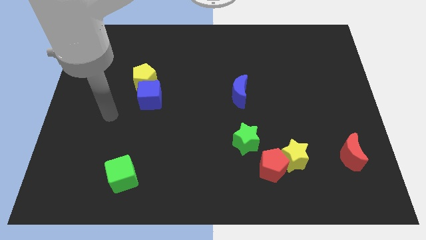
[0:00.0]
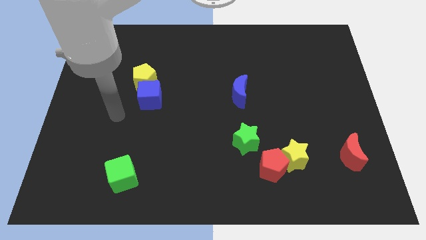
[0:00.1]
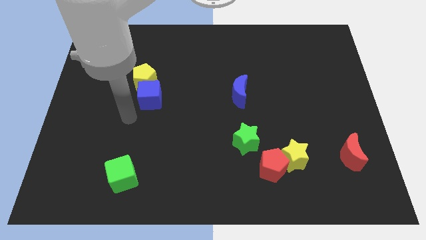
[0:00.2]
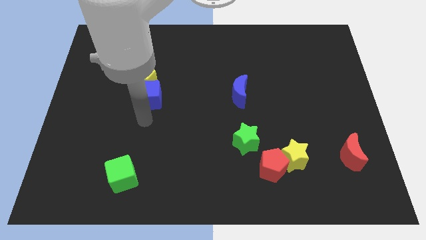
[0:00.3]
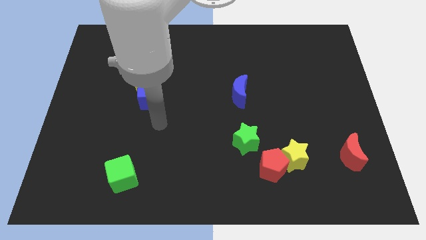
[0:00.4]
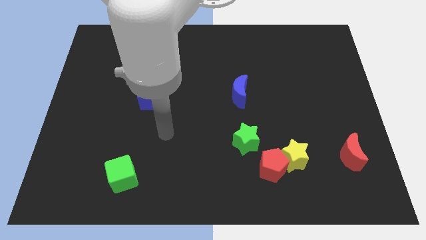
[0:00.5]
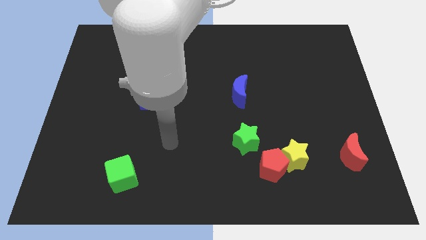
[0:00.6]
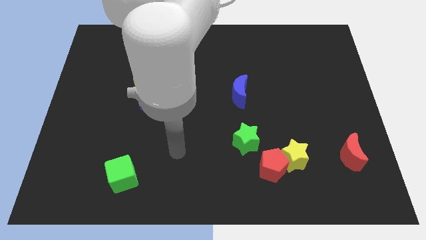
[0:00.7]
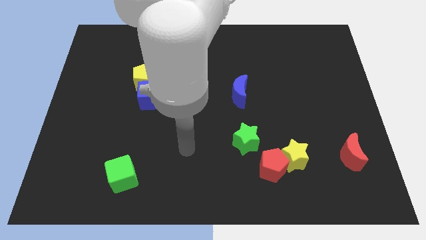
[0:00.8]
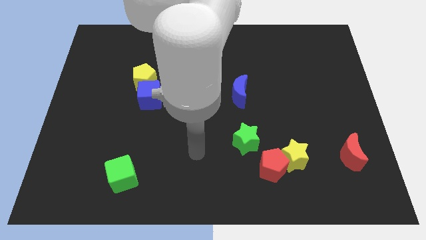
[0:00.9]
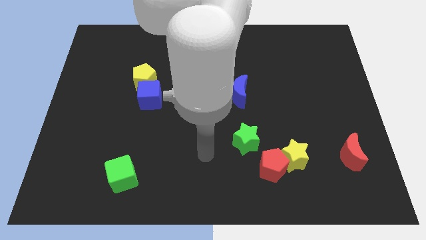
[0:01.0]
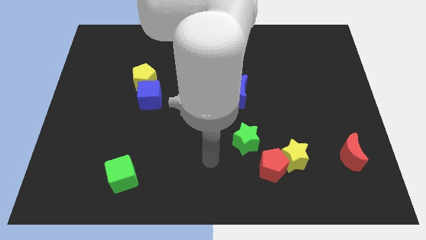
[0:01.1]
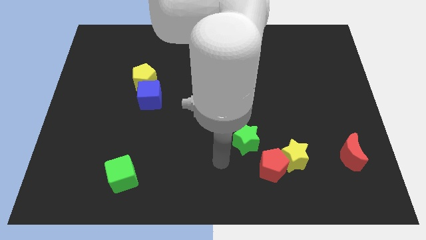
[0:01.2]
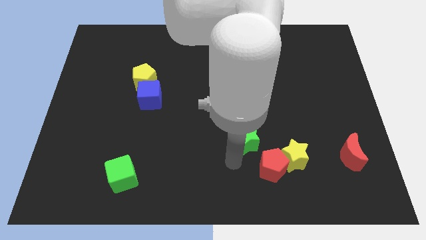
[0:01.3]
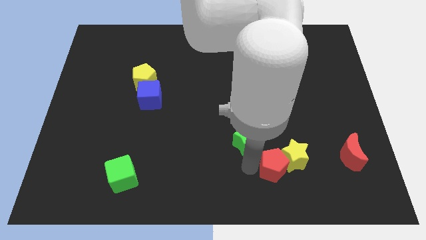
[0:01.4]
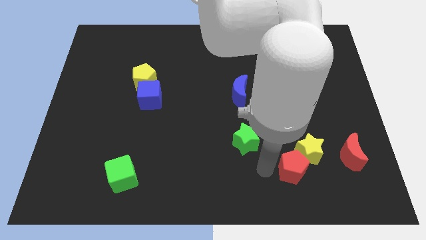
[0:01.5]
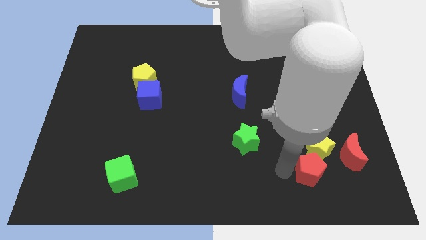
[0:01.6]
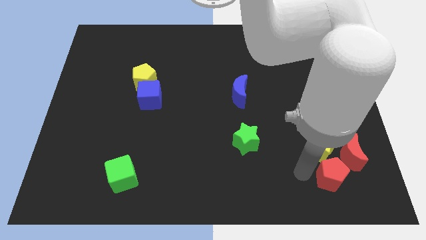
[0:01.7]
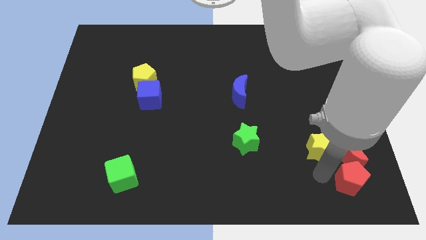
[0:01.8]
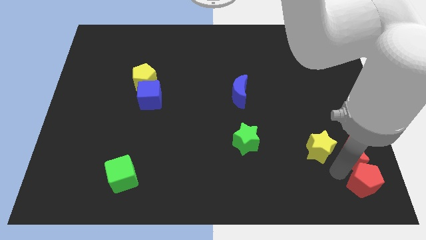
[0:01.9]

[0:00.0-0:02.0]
separate the yellow star from the red pentagon

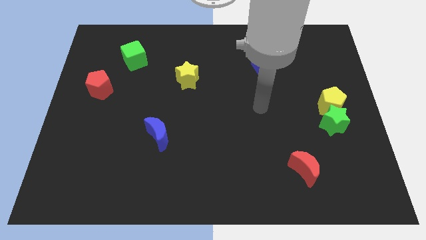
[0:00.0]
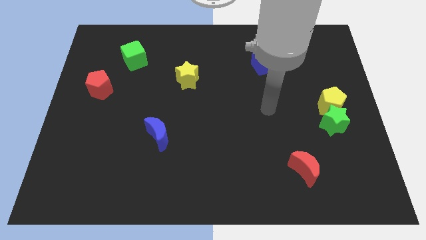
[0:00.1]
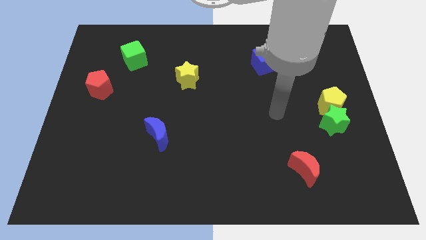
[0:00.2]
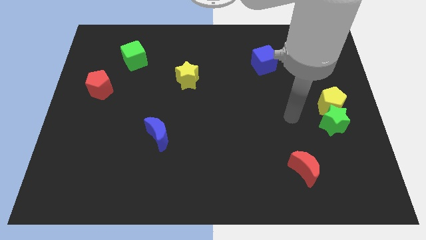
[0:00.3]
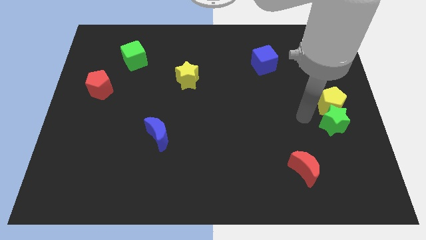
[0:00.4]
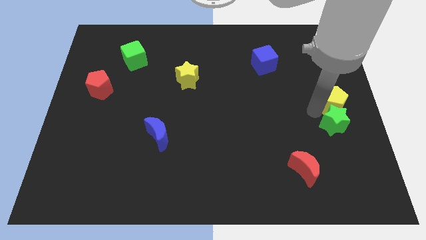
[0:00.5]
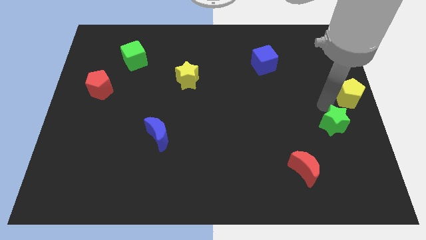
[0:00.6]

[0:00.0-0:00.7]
move the green star away from the yellow pentagon

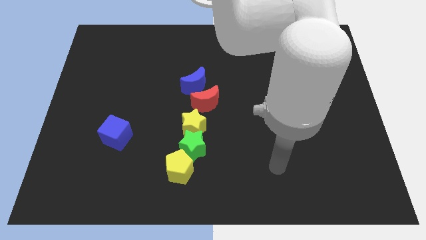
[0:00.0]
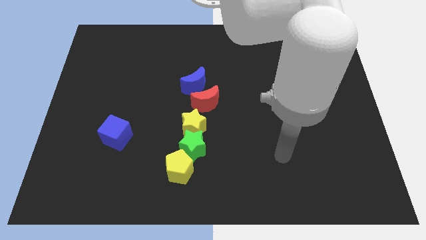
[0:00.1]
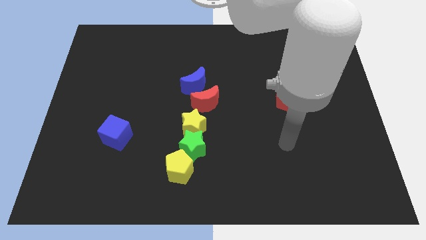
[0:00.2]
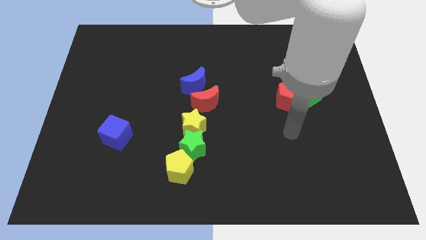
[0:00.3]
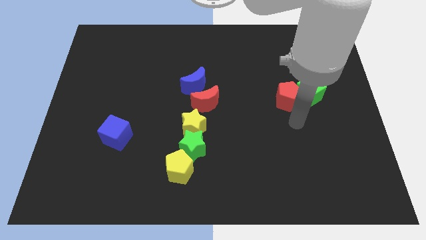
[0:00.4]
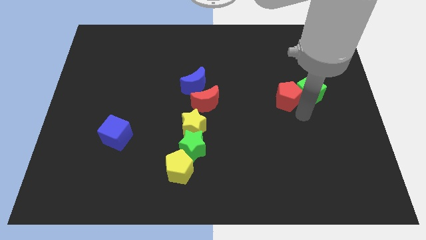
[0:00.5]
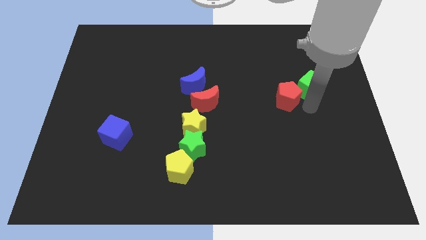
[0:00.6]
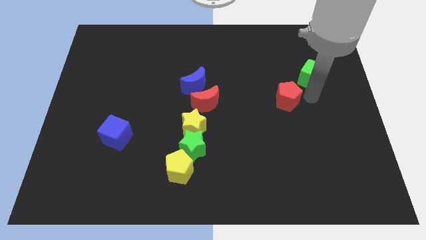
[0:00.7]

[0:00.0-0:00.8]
move the red pentagon away from the green cube

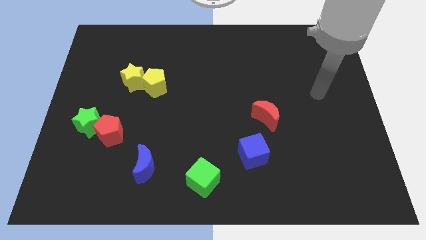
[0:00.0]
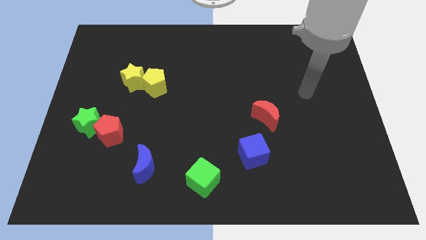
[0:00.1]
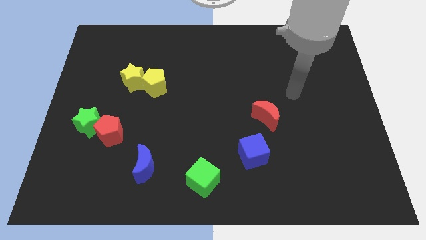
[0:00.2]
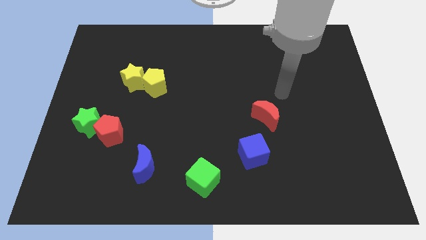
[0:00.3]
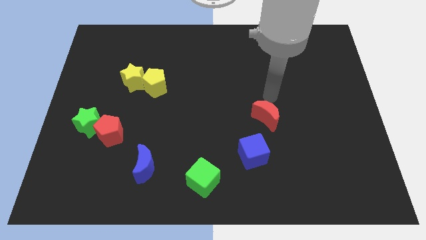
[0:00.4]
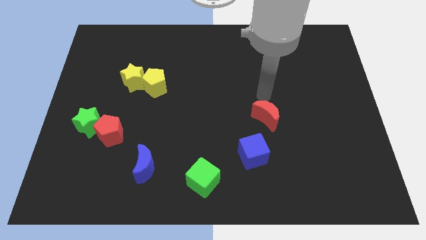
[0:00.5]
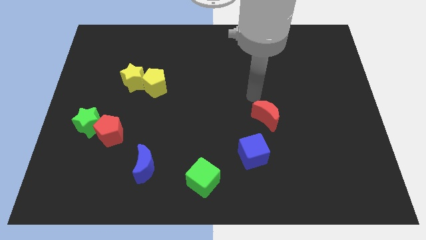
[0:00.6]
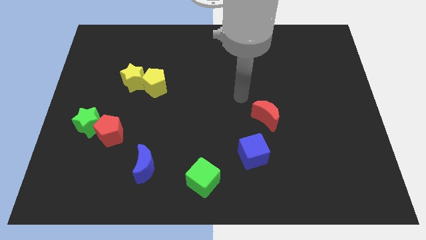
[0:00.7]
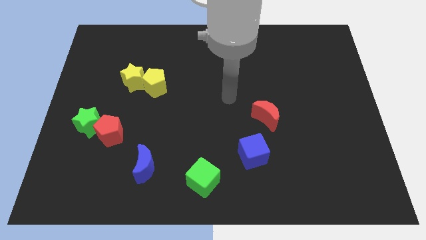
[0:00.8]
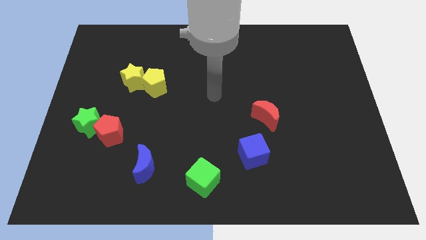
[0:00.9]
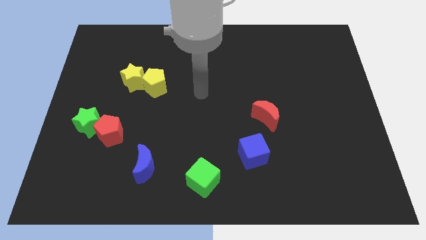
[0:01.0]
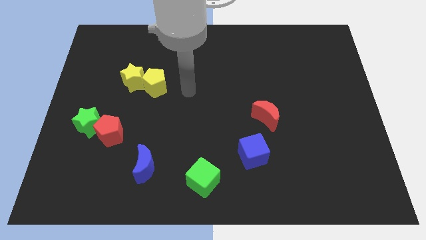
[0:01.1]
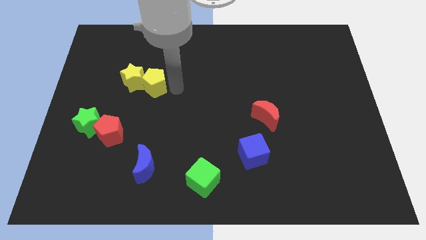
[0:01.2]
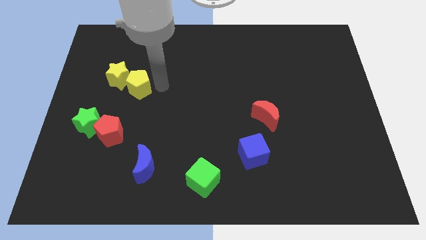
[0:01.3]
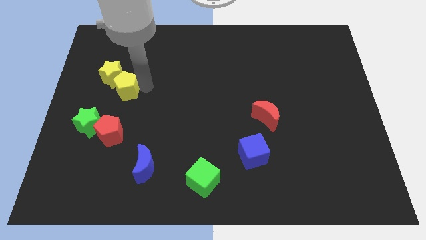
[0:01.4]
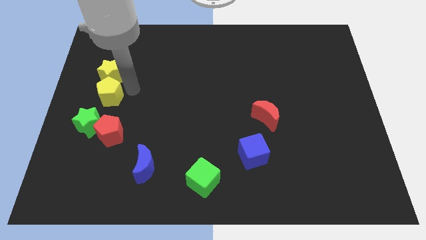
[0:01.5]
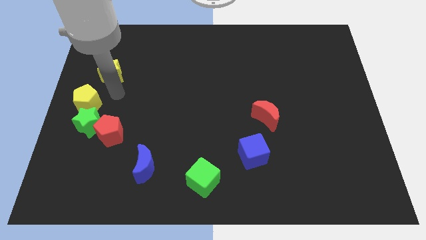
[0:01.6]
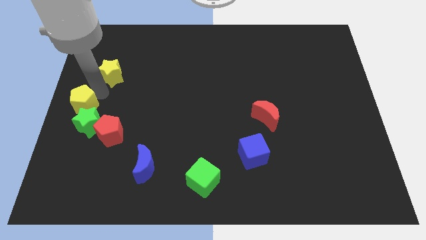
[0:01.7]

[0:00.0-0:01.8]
separate the yellow star from the yellow pentagon

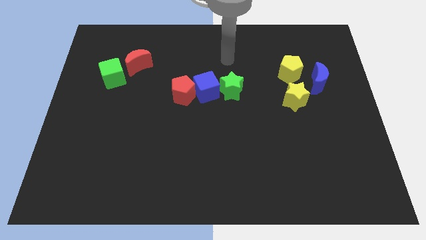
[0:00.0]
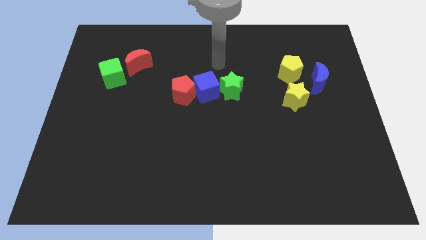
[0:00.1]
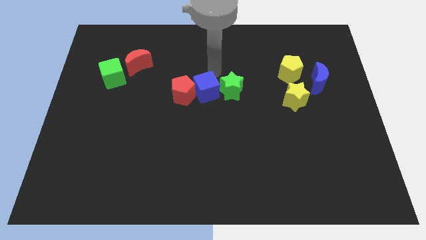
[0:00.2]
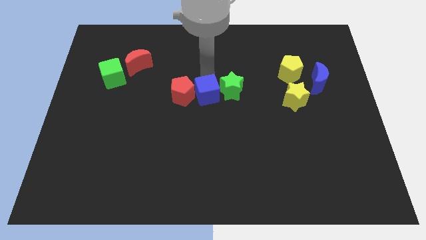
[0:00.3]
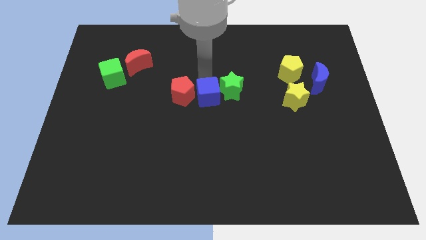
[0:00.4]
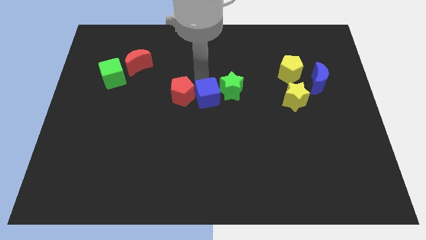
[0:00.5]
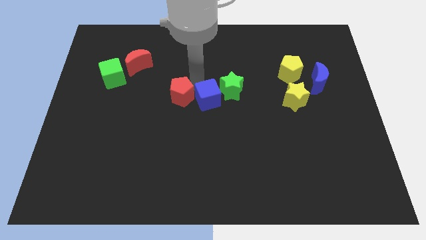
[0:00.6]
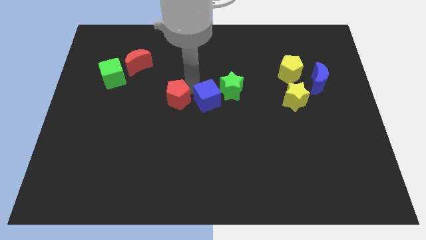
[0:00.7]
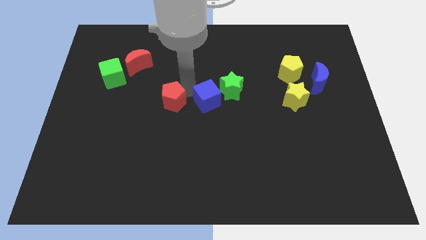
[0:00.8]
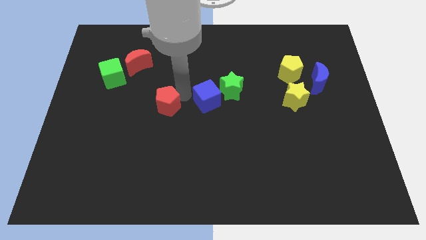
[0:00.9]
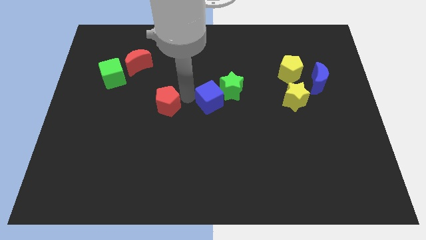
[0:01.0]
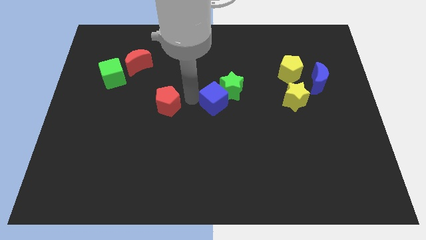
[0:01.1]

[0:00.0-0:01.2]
pull the red pentagon apart from the blue cube

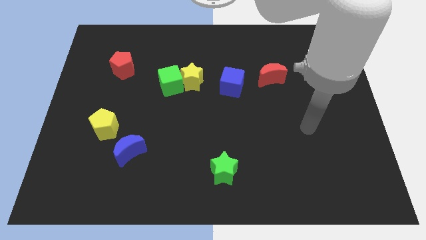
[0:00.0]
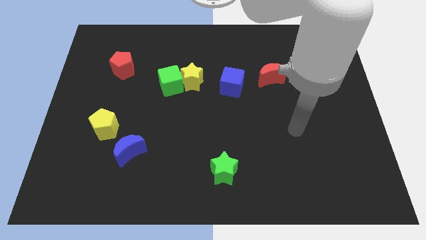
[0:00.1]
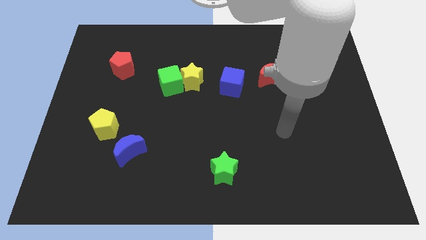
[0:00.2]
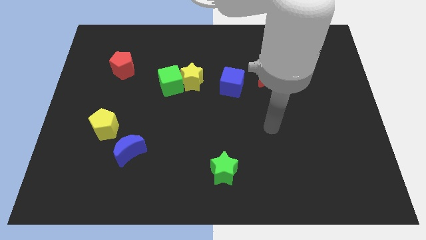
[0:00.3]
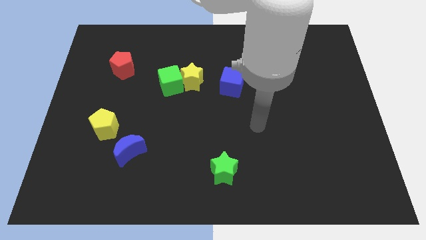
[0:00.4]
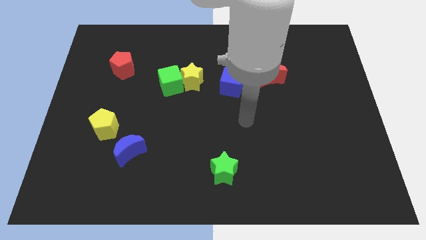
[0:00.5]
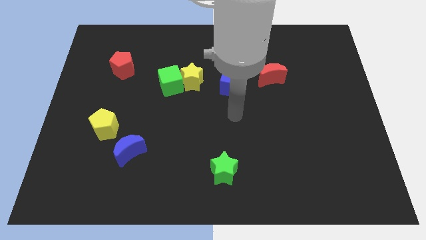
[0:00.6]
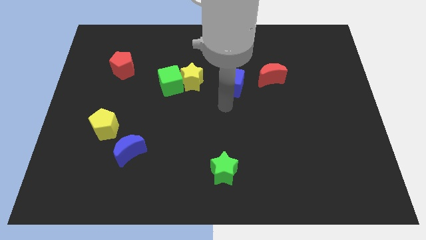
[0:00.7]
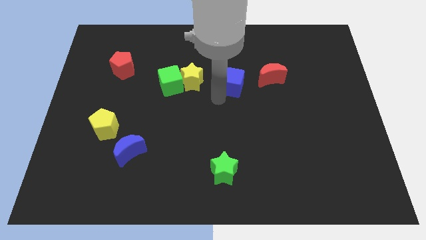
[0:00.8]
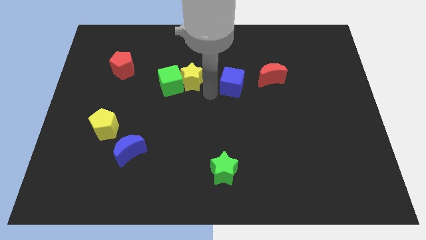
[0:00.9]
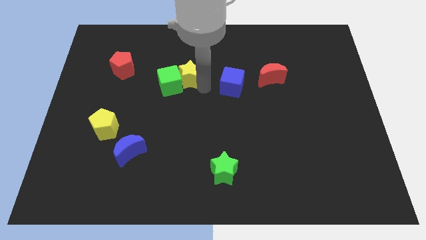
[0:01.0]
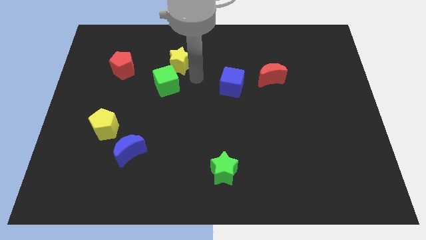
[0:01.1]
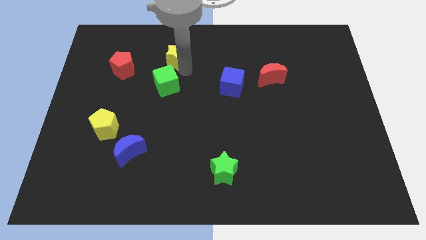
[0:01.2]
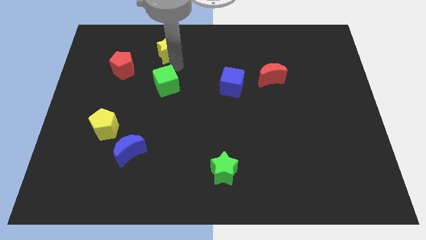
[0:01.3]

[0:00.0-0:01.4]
pull the green cube apart from the yellow star

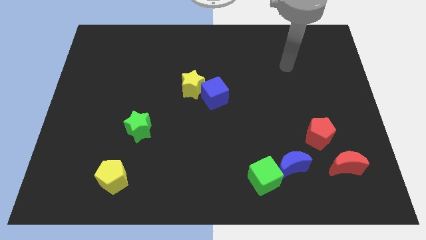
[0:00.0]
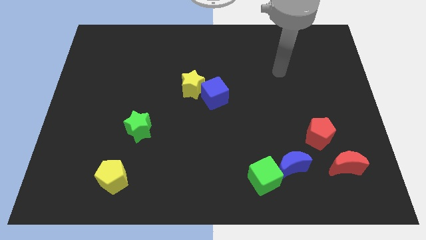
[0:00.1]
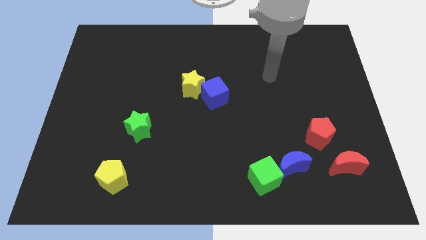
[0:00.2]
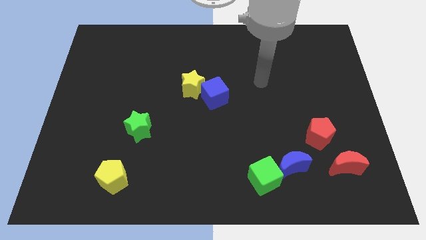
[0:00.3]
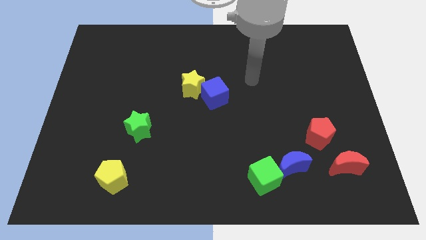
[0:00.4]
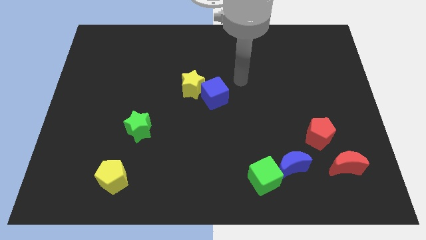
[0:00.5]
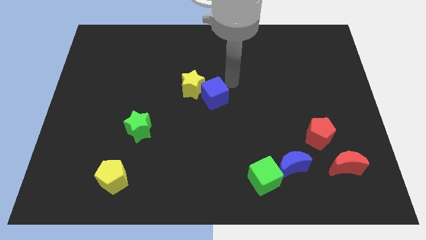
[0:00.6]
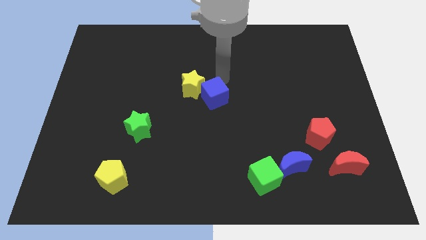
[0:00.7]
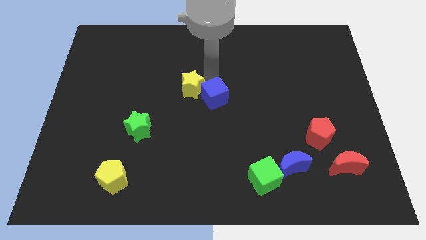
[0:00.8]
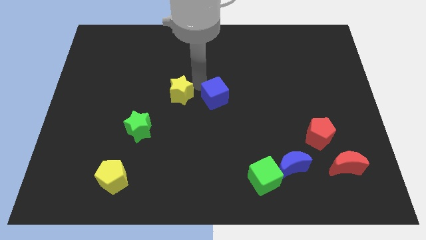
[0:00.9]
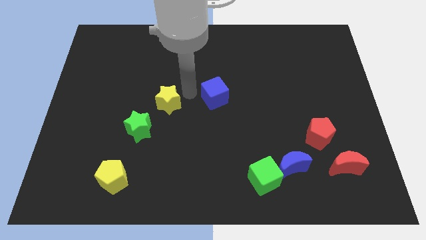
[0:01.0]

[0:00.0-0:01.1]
pull the blue cube apart from the yellow star
